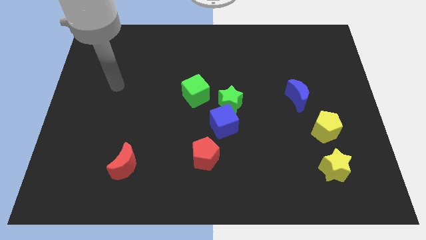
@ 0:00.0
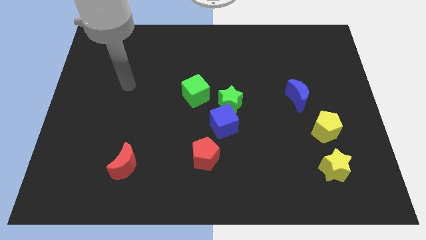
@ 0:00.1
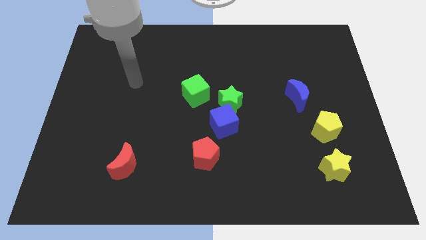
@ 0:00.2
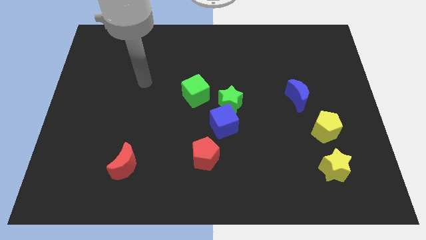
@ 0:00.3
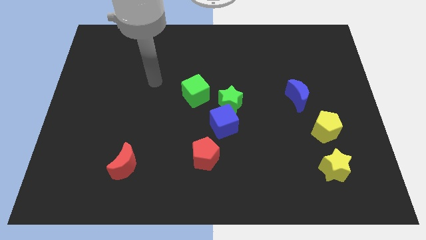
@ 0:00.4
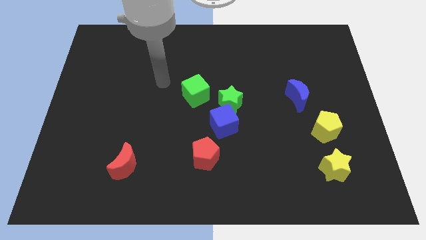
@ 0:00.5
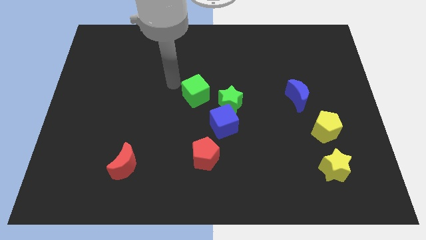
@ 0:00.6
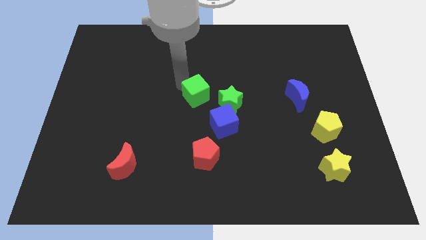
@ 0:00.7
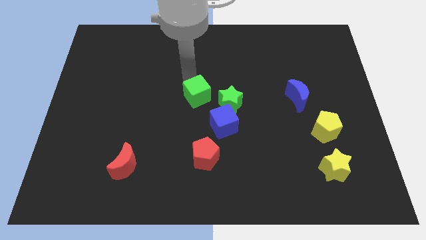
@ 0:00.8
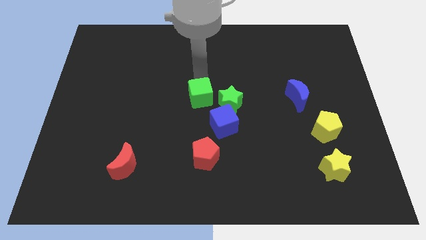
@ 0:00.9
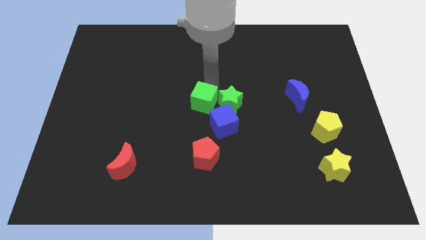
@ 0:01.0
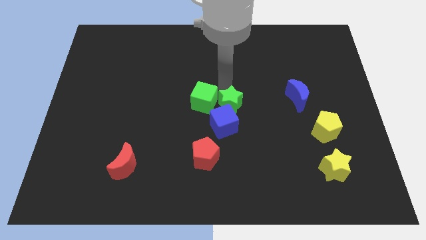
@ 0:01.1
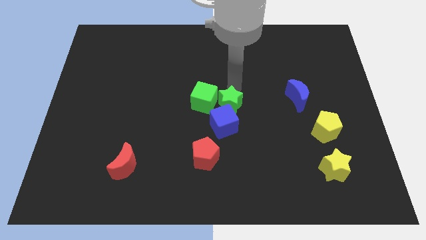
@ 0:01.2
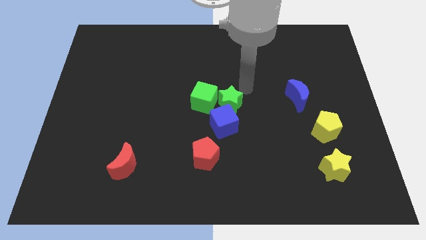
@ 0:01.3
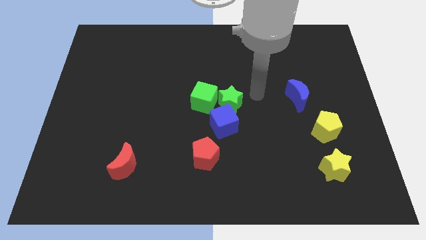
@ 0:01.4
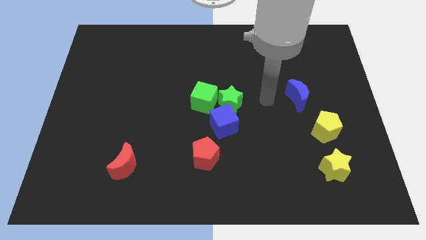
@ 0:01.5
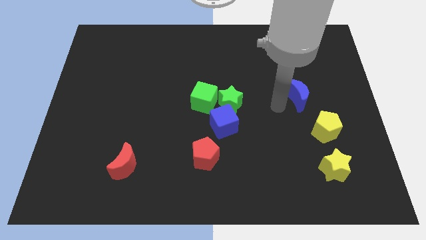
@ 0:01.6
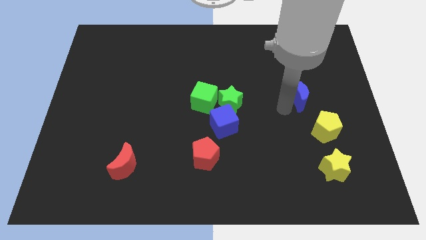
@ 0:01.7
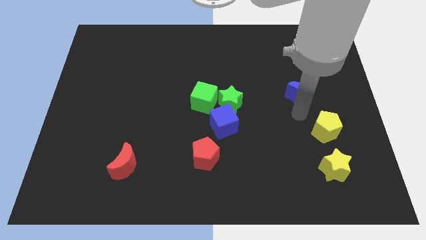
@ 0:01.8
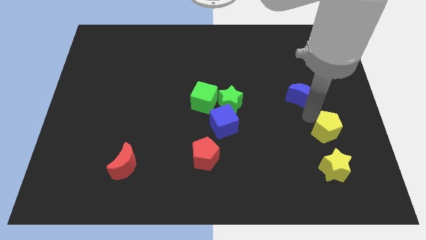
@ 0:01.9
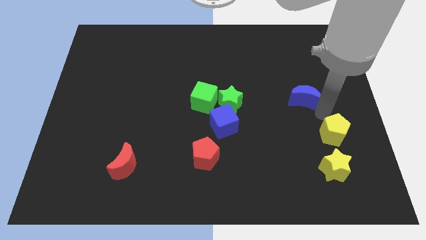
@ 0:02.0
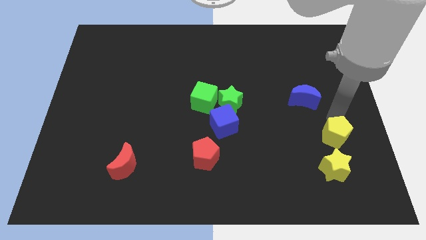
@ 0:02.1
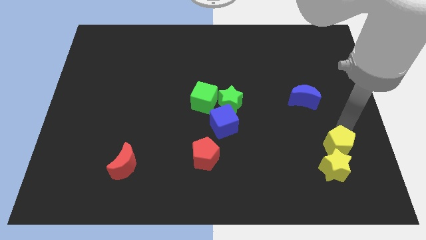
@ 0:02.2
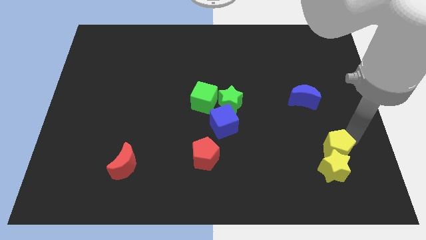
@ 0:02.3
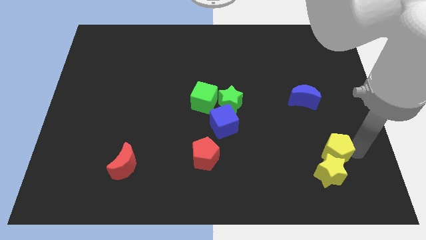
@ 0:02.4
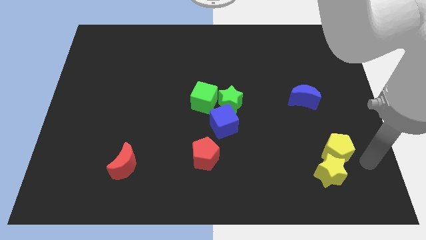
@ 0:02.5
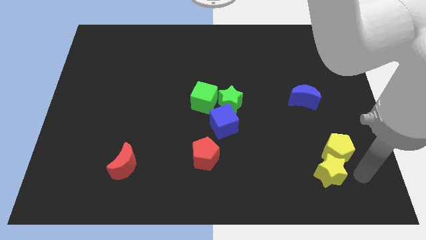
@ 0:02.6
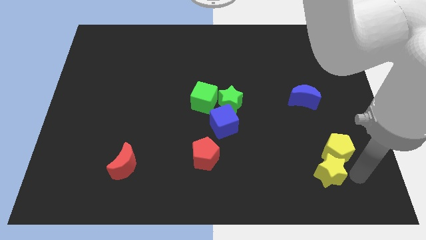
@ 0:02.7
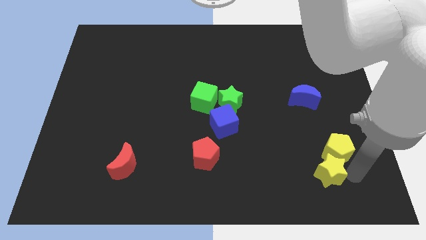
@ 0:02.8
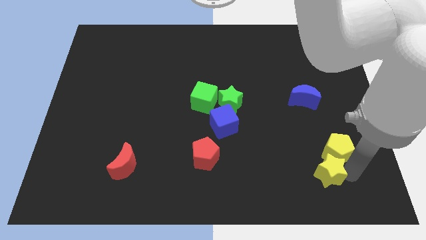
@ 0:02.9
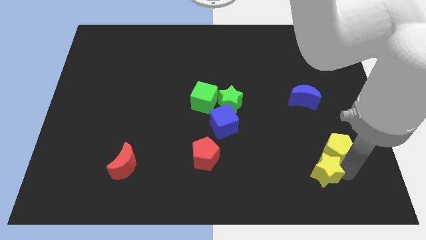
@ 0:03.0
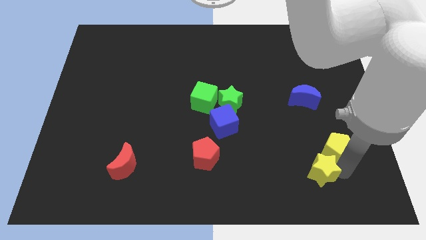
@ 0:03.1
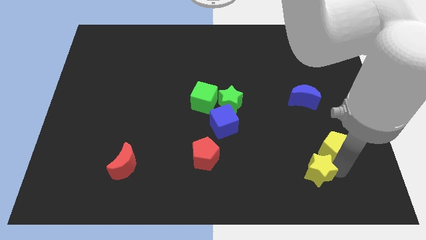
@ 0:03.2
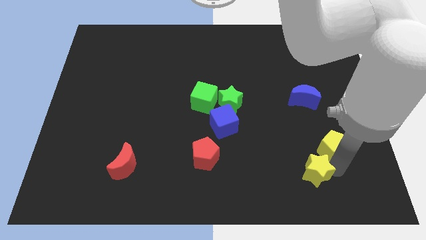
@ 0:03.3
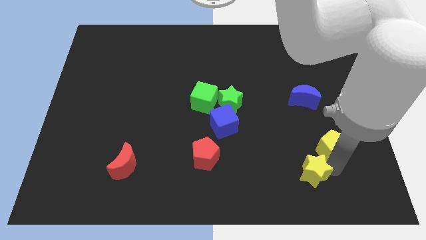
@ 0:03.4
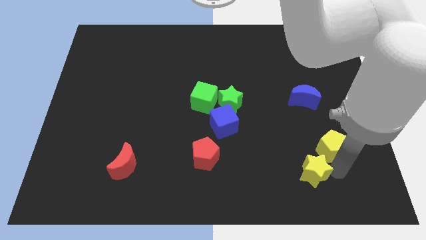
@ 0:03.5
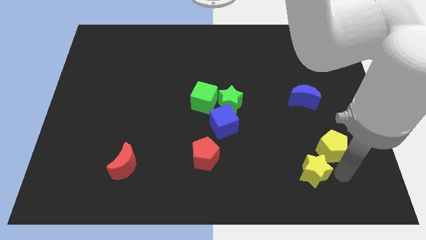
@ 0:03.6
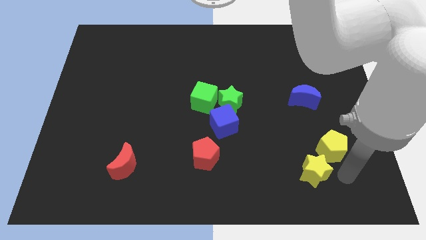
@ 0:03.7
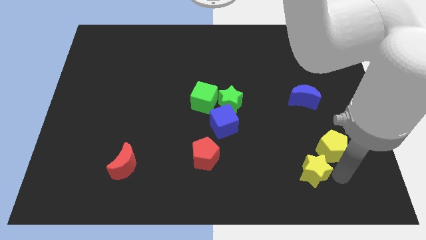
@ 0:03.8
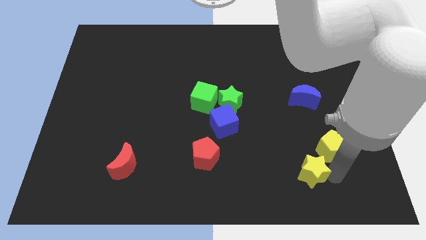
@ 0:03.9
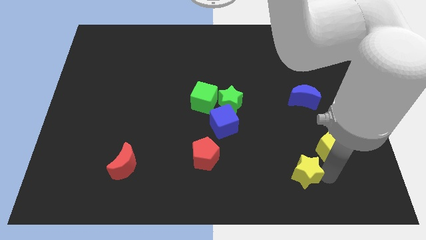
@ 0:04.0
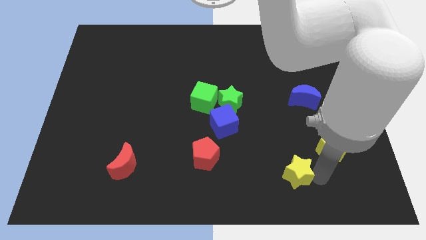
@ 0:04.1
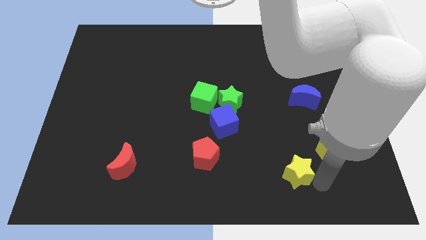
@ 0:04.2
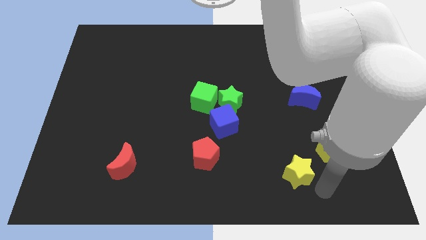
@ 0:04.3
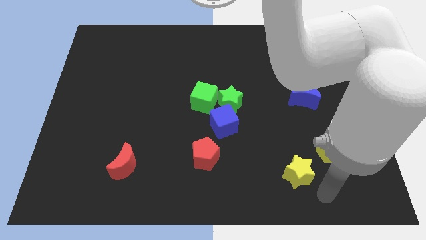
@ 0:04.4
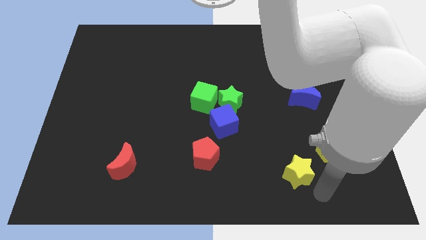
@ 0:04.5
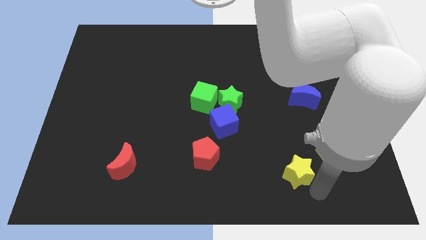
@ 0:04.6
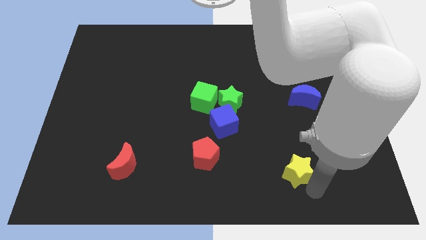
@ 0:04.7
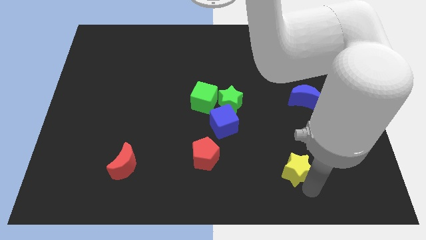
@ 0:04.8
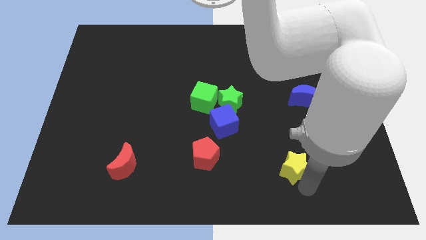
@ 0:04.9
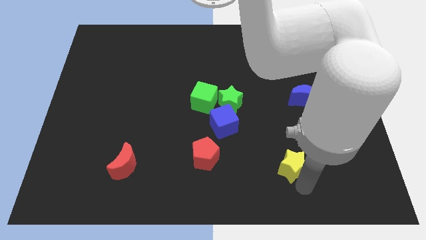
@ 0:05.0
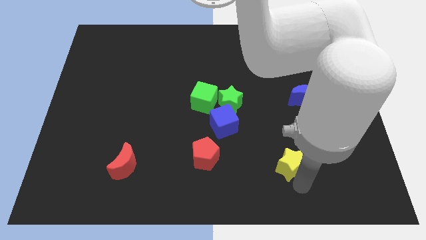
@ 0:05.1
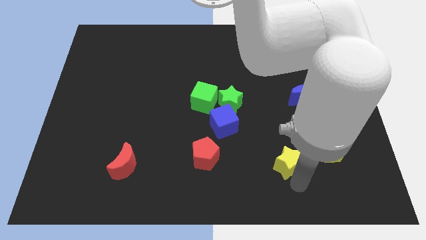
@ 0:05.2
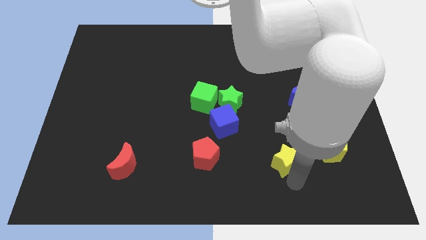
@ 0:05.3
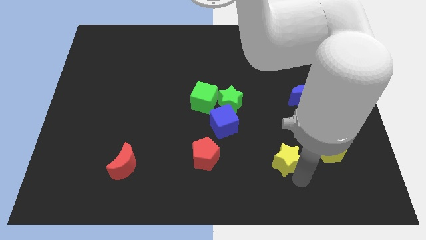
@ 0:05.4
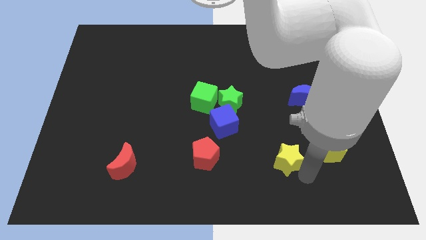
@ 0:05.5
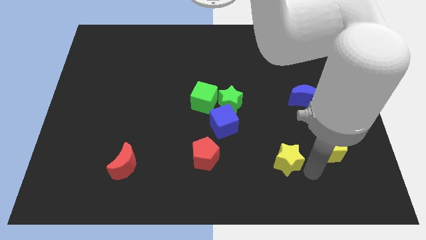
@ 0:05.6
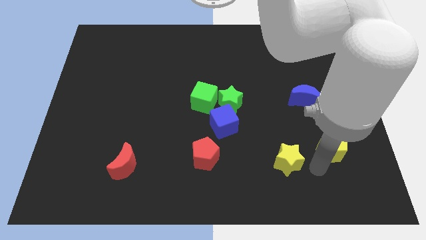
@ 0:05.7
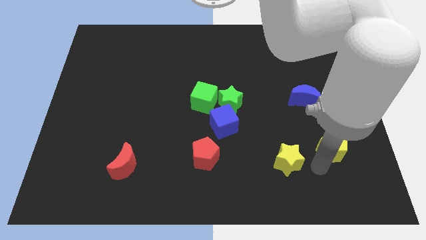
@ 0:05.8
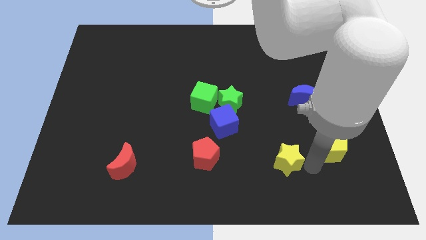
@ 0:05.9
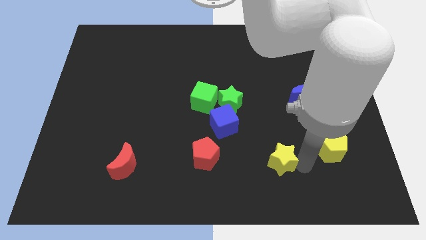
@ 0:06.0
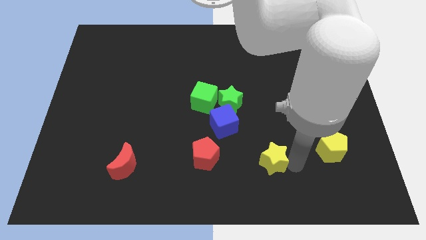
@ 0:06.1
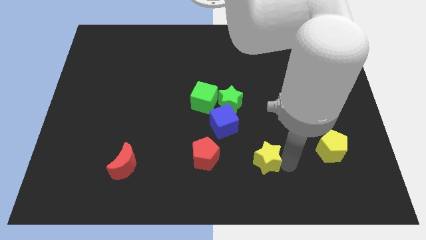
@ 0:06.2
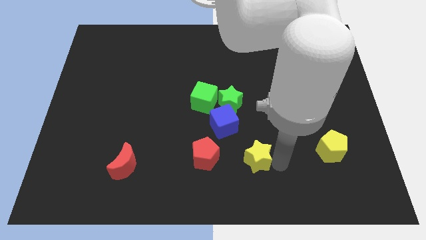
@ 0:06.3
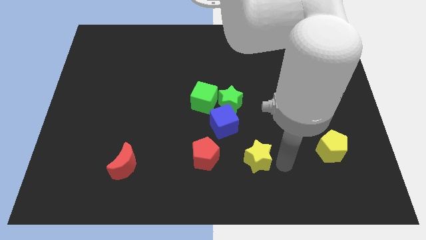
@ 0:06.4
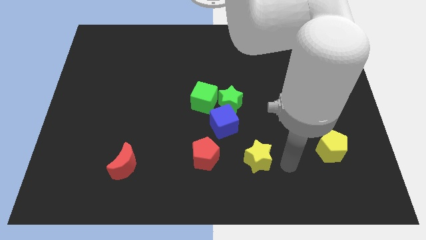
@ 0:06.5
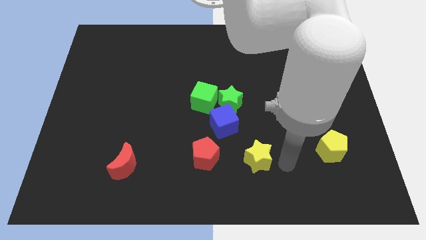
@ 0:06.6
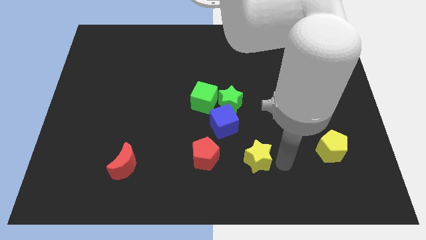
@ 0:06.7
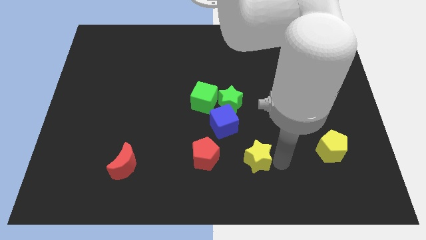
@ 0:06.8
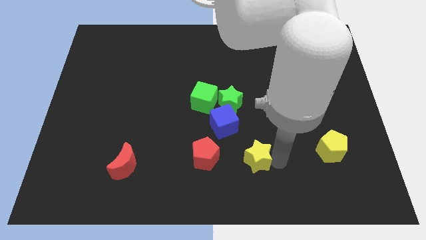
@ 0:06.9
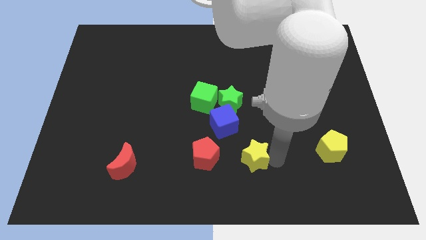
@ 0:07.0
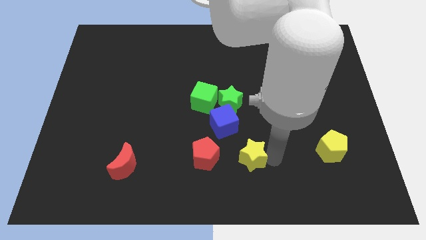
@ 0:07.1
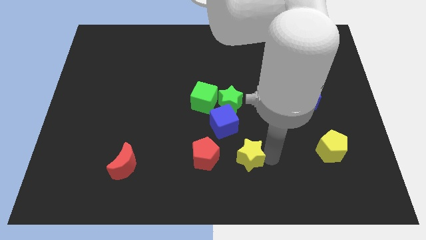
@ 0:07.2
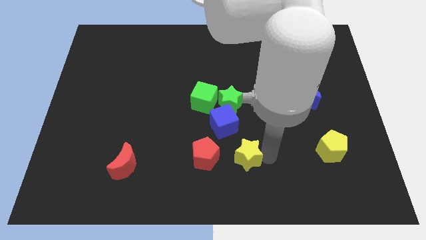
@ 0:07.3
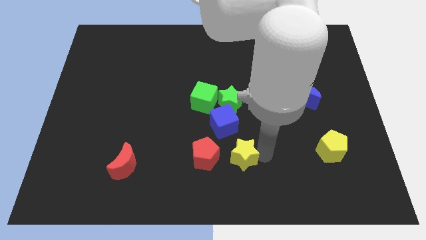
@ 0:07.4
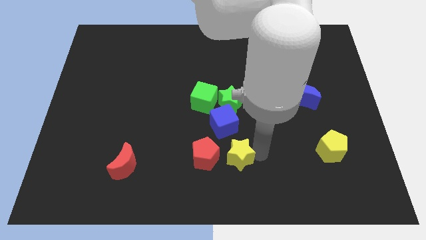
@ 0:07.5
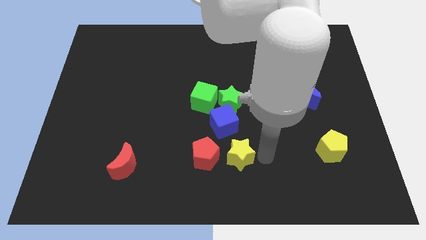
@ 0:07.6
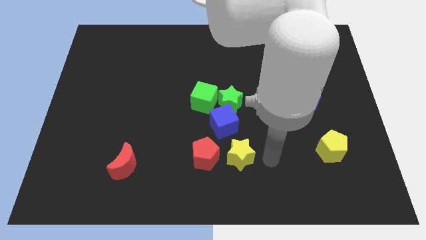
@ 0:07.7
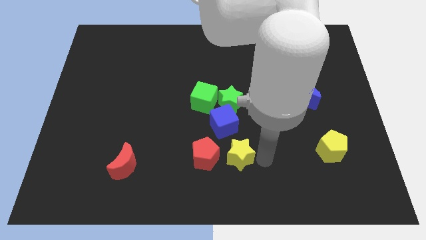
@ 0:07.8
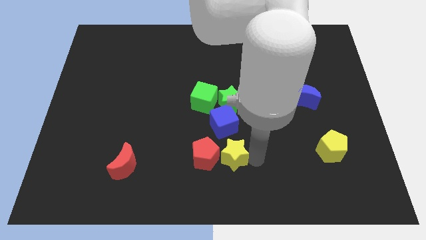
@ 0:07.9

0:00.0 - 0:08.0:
move the yellow star close to the red pentagon
